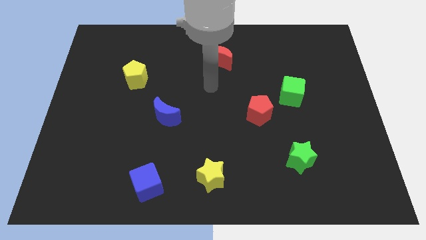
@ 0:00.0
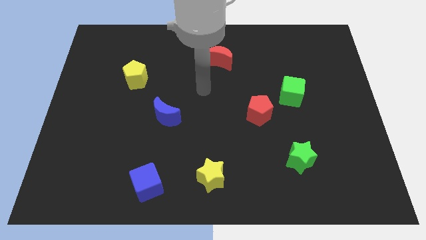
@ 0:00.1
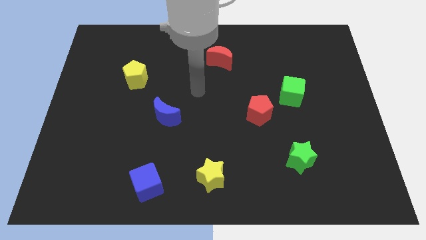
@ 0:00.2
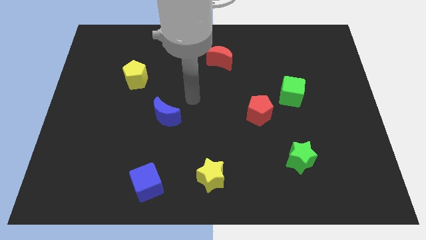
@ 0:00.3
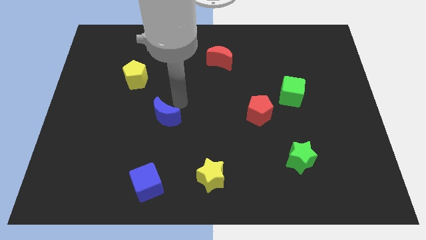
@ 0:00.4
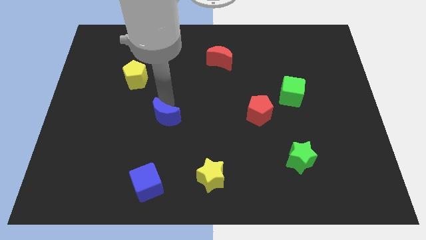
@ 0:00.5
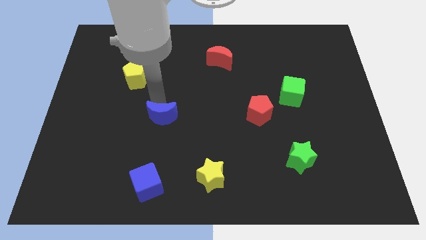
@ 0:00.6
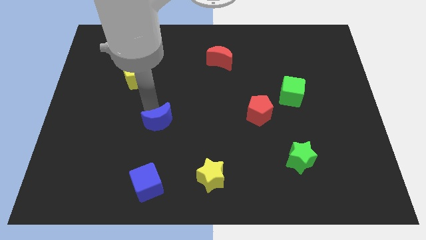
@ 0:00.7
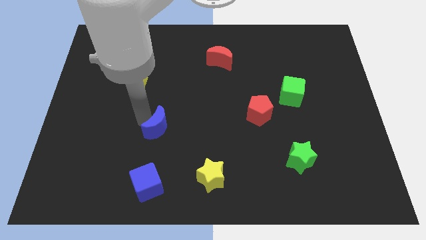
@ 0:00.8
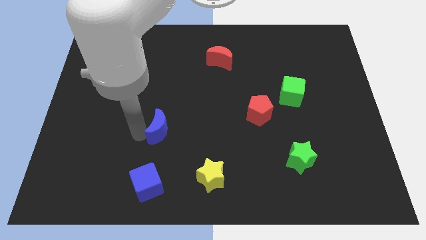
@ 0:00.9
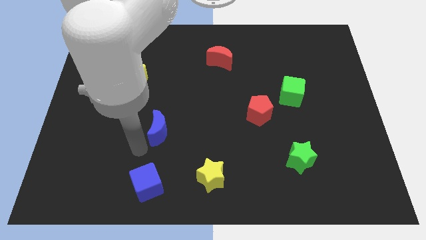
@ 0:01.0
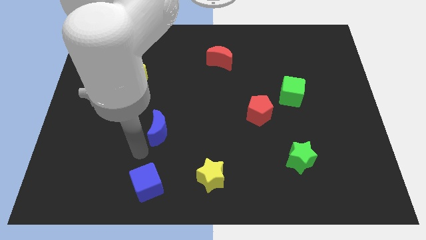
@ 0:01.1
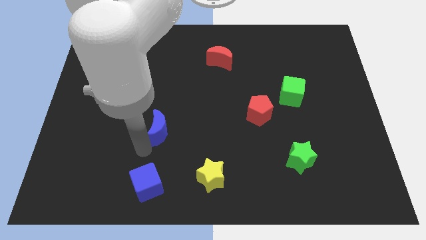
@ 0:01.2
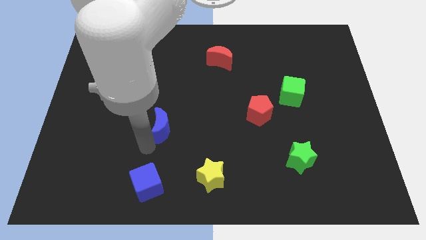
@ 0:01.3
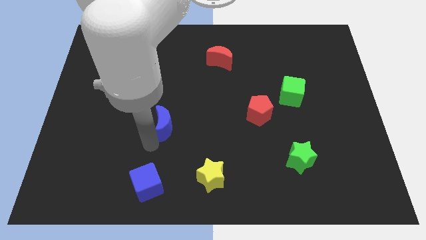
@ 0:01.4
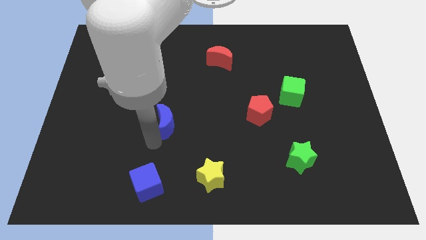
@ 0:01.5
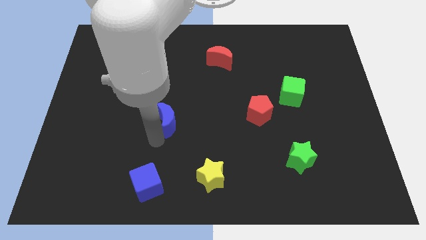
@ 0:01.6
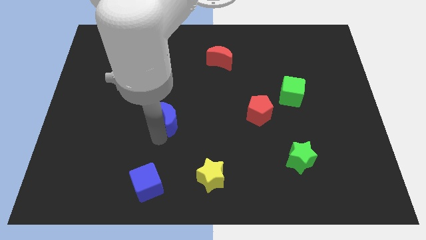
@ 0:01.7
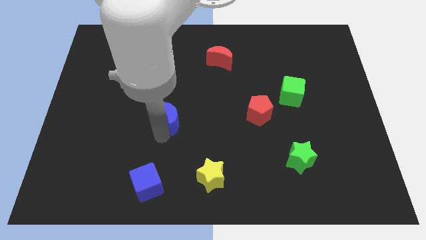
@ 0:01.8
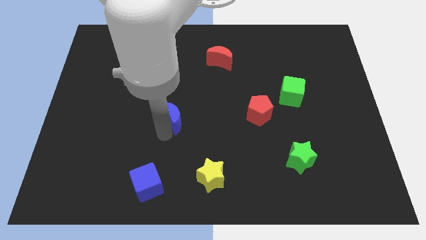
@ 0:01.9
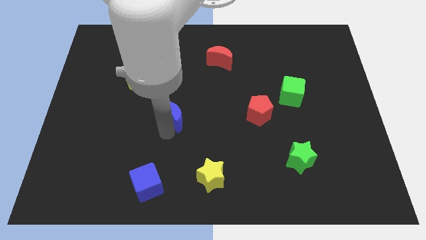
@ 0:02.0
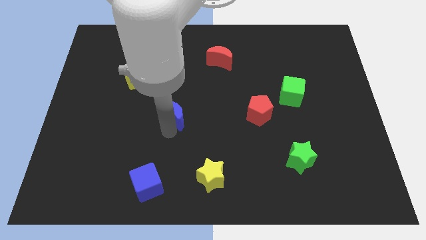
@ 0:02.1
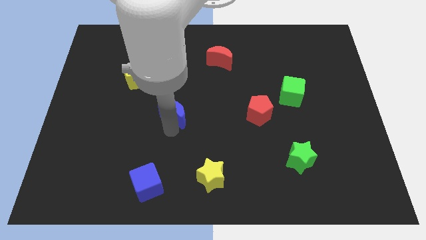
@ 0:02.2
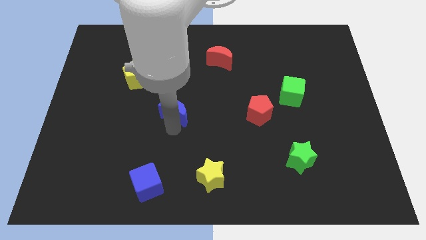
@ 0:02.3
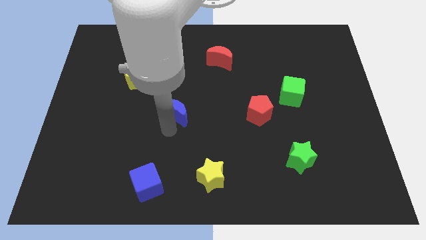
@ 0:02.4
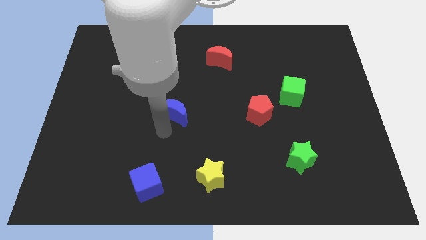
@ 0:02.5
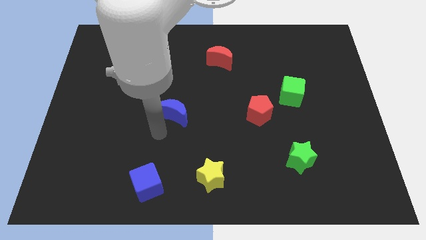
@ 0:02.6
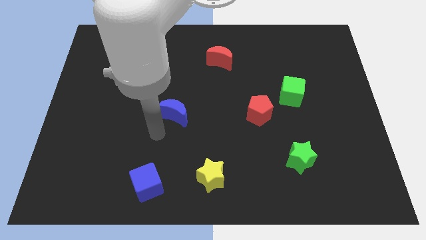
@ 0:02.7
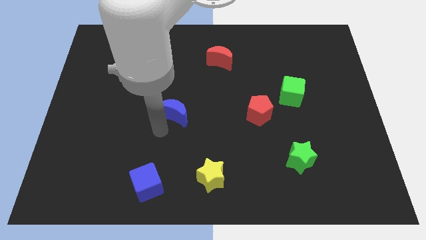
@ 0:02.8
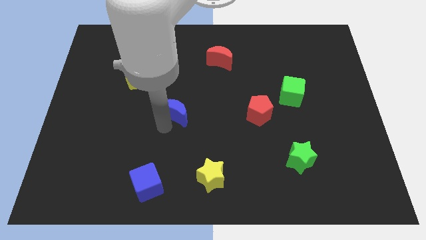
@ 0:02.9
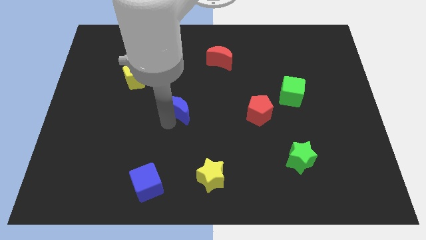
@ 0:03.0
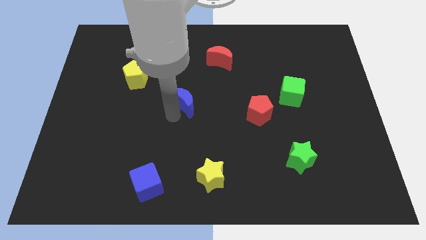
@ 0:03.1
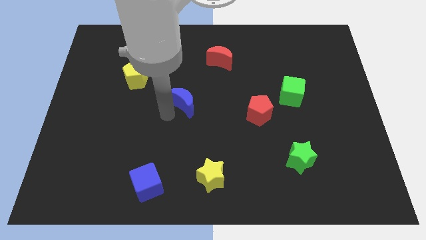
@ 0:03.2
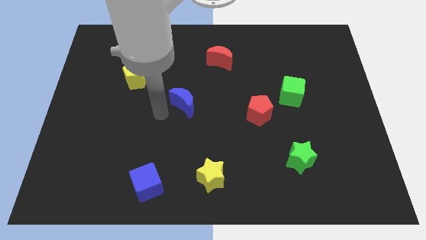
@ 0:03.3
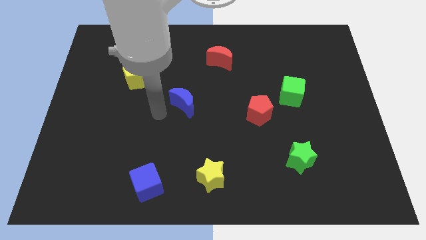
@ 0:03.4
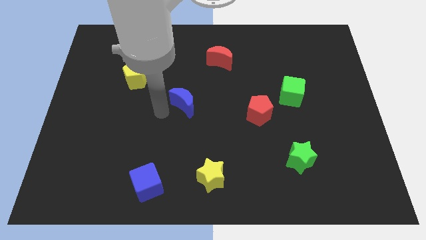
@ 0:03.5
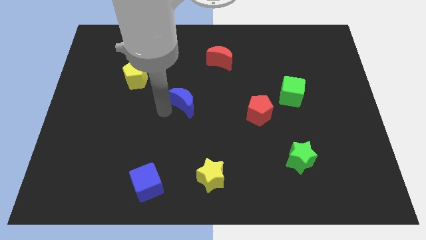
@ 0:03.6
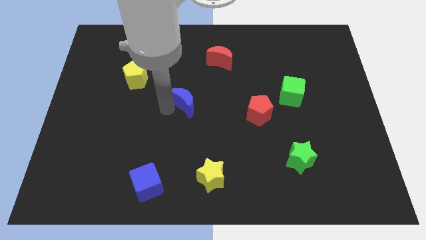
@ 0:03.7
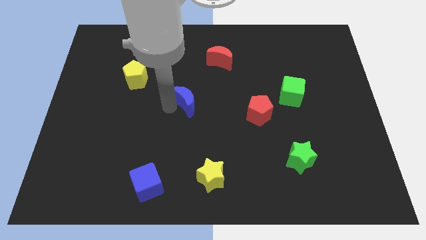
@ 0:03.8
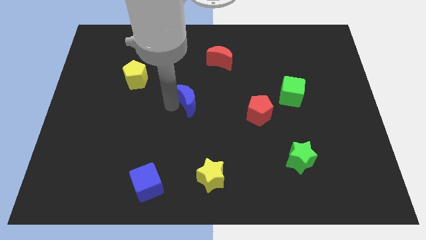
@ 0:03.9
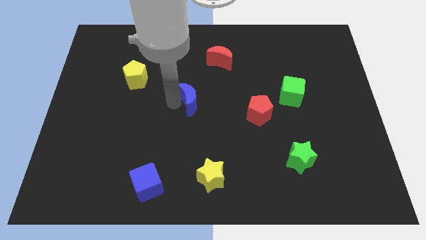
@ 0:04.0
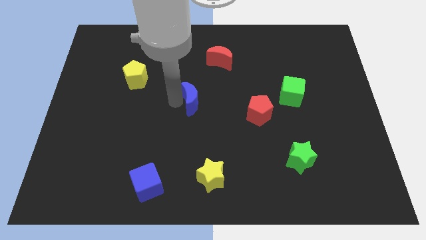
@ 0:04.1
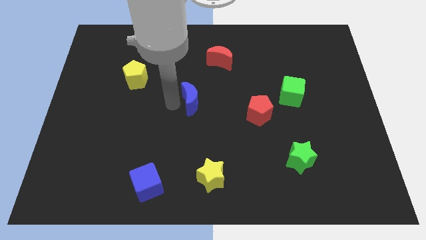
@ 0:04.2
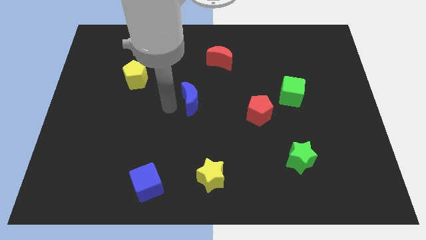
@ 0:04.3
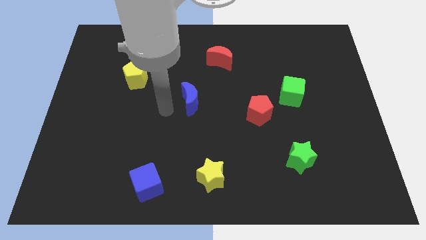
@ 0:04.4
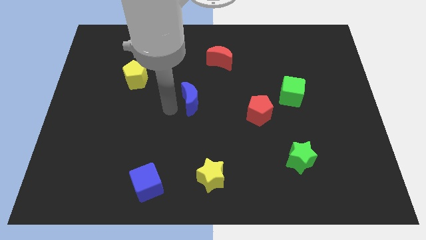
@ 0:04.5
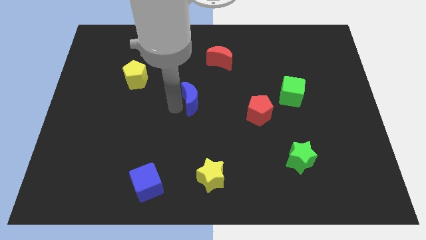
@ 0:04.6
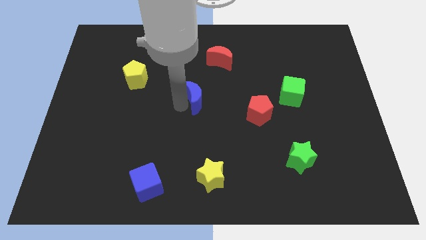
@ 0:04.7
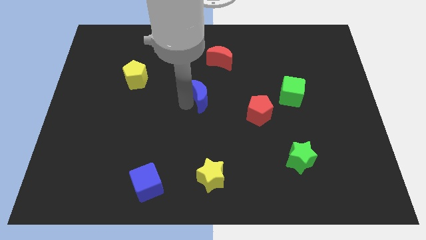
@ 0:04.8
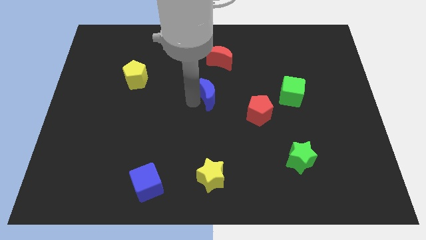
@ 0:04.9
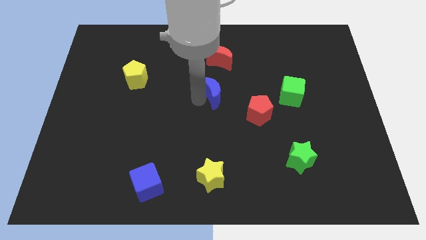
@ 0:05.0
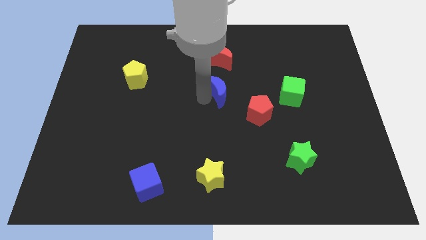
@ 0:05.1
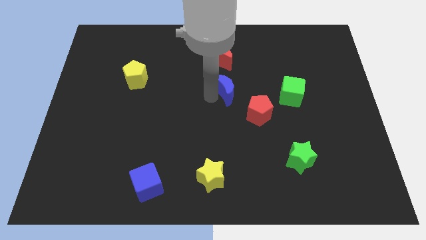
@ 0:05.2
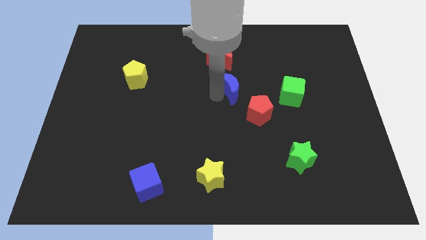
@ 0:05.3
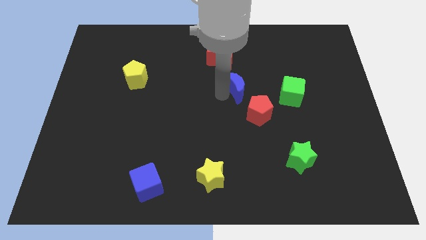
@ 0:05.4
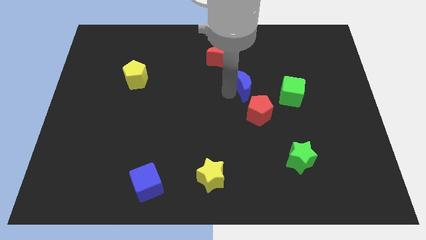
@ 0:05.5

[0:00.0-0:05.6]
put the blue moon to the top of the red pentagon

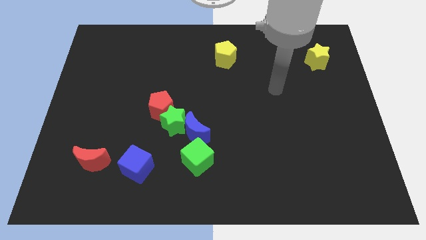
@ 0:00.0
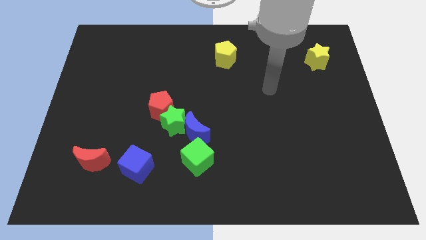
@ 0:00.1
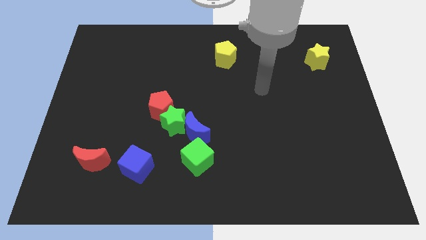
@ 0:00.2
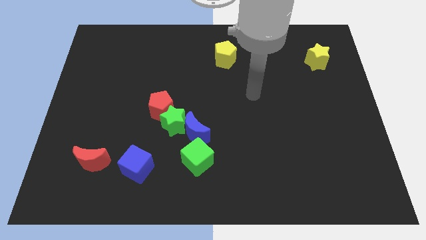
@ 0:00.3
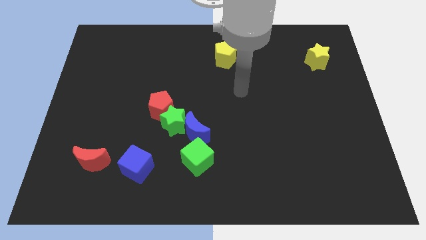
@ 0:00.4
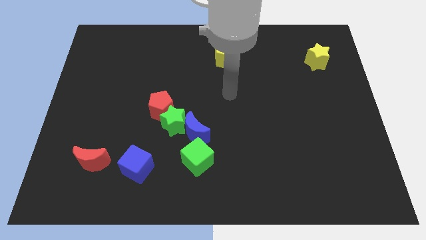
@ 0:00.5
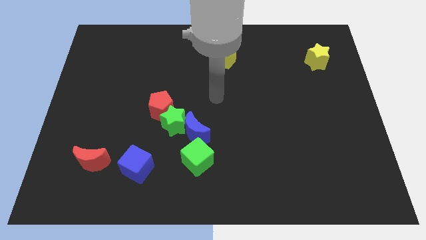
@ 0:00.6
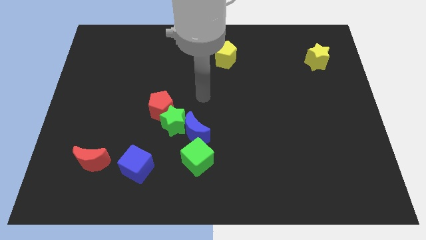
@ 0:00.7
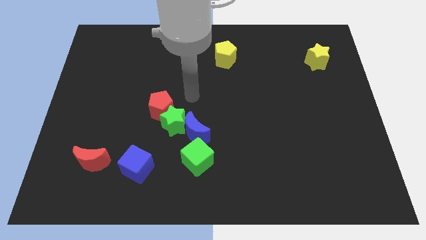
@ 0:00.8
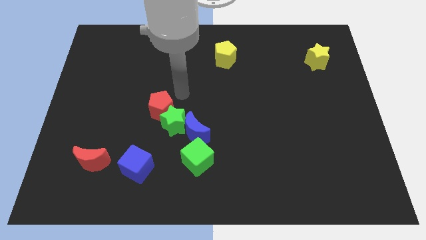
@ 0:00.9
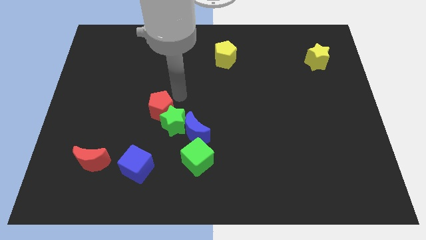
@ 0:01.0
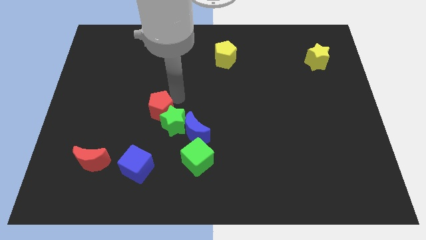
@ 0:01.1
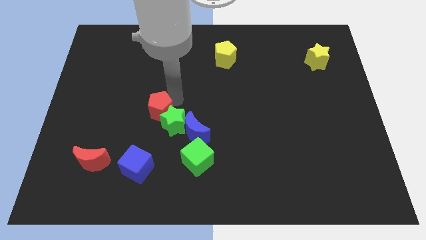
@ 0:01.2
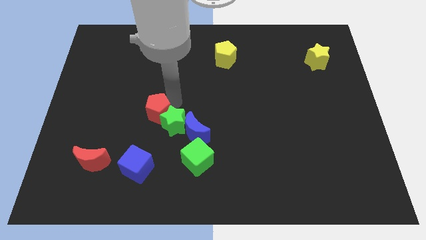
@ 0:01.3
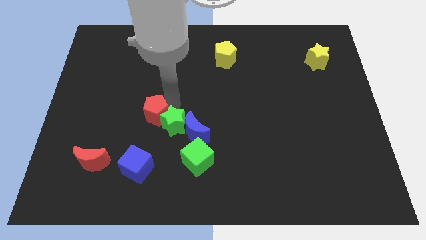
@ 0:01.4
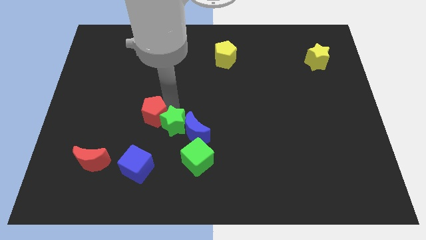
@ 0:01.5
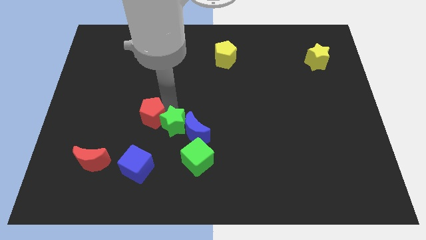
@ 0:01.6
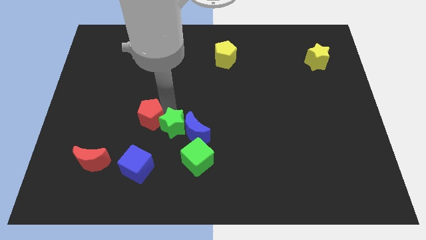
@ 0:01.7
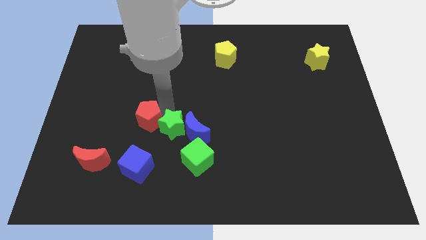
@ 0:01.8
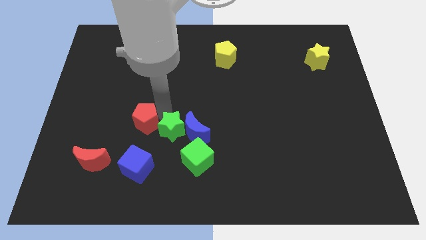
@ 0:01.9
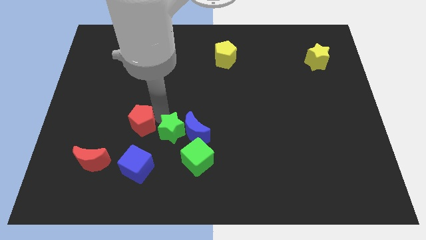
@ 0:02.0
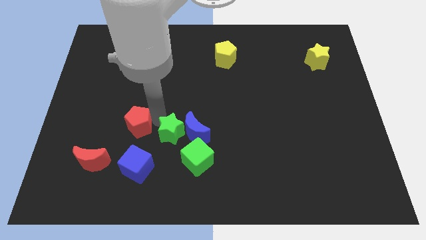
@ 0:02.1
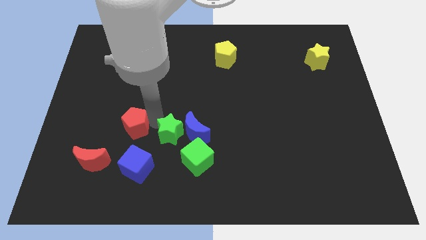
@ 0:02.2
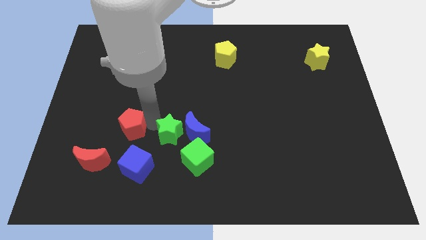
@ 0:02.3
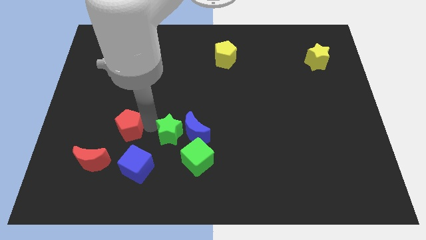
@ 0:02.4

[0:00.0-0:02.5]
push the red pentagon to the top left of the blue cube
